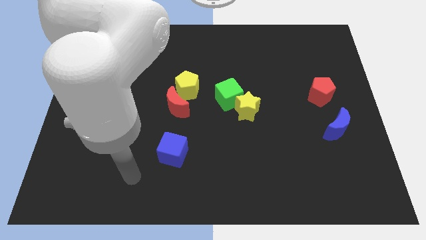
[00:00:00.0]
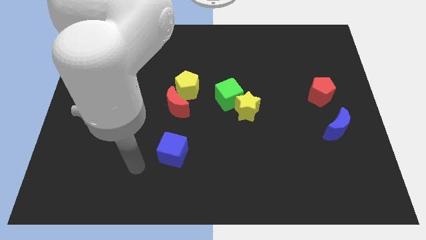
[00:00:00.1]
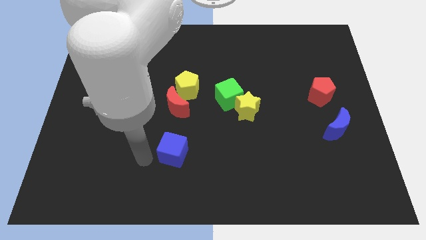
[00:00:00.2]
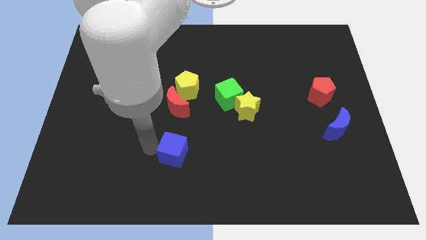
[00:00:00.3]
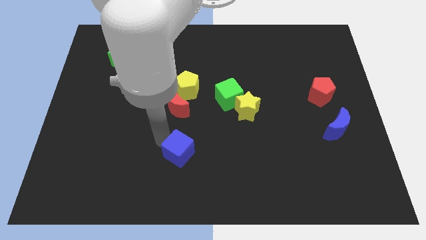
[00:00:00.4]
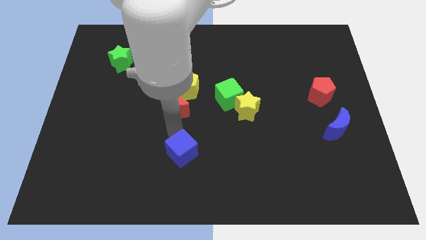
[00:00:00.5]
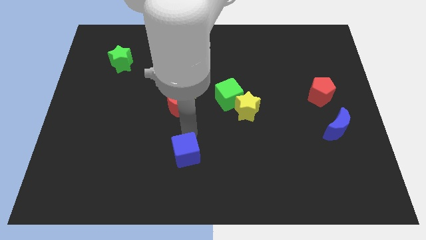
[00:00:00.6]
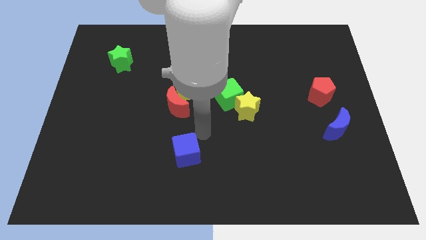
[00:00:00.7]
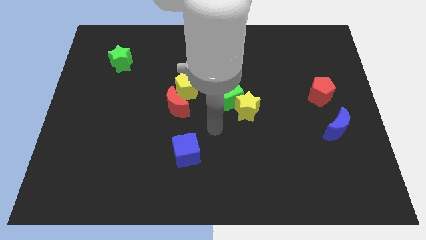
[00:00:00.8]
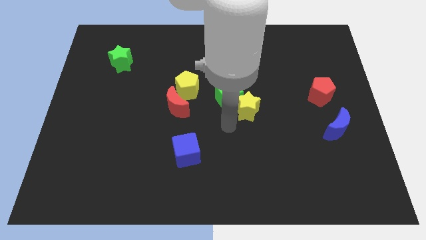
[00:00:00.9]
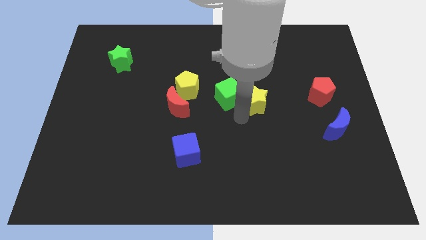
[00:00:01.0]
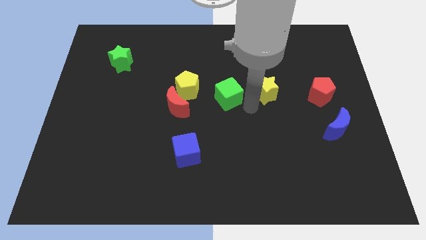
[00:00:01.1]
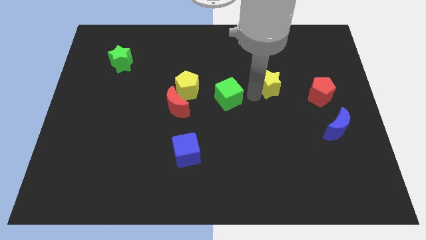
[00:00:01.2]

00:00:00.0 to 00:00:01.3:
pull the green cube apart from the yellow star

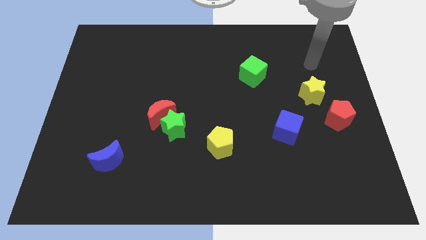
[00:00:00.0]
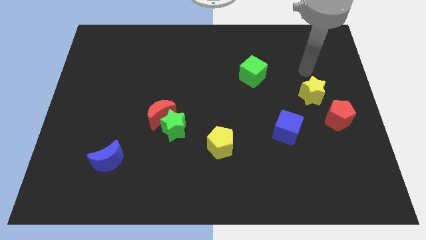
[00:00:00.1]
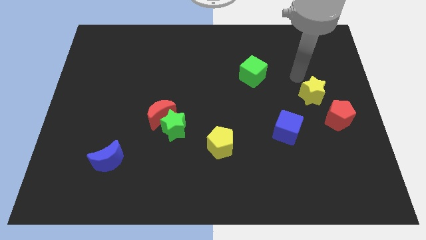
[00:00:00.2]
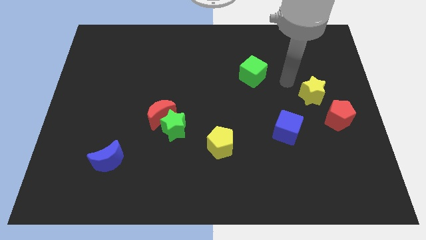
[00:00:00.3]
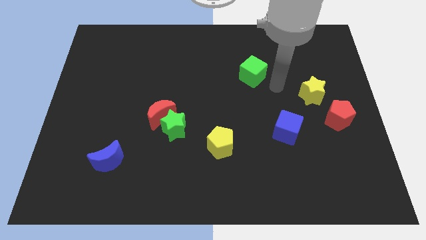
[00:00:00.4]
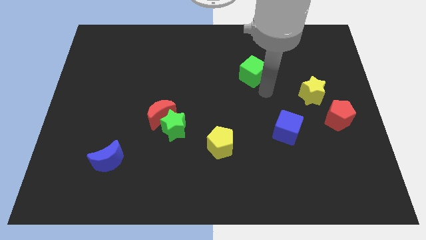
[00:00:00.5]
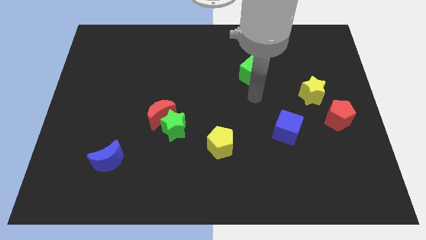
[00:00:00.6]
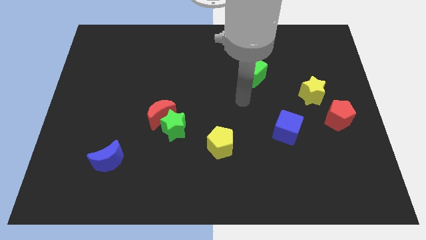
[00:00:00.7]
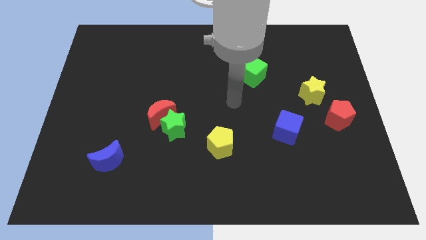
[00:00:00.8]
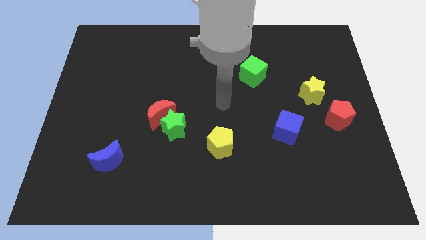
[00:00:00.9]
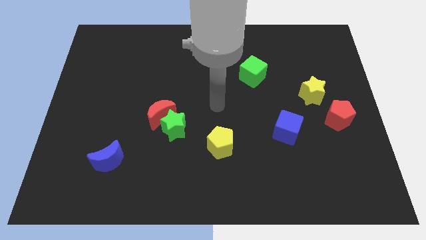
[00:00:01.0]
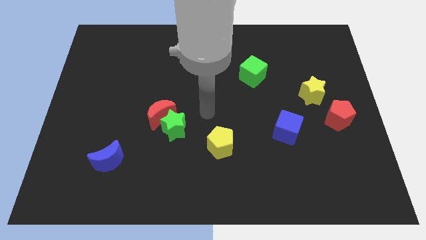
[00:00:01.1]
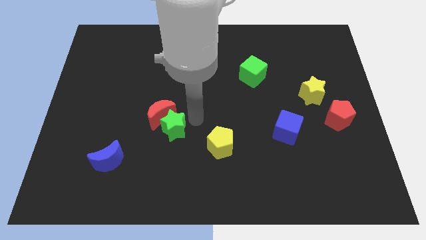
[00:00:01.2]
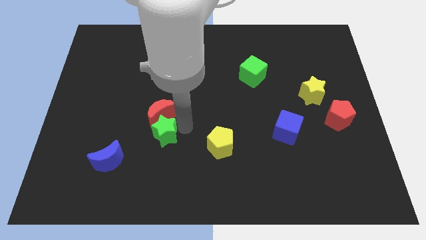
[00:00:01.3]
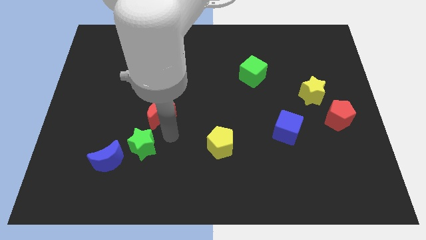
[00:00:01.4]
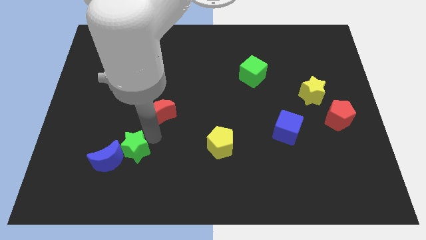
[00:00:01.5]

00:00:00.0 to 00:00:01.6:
move the red moon away from the green star

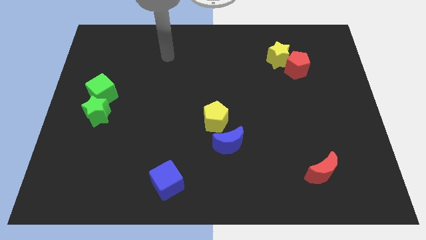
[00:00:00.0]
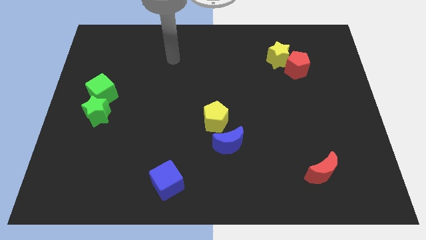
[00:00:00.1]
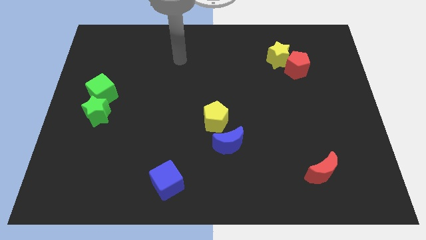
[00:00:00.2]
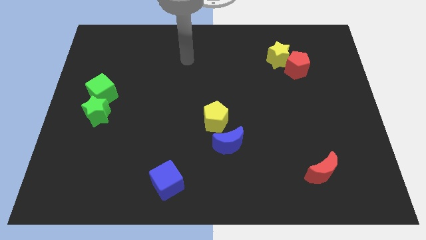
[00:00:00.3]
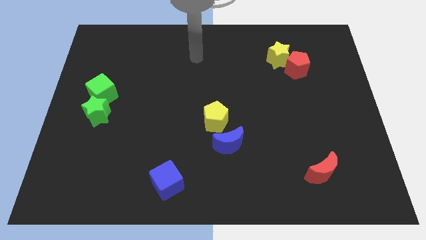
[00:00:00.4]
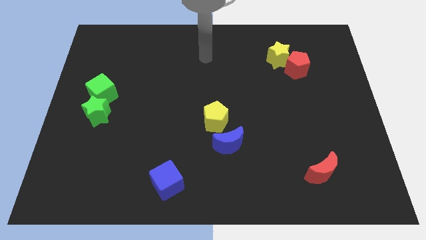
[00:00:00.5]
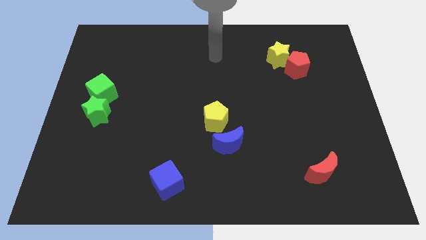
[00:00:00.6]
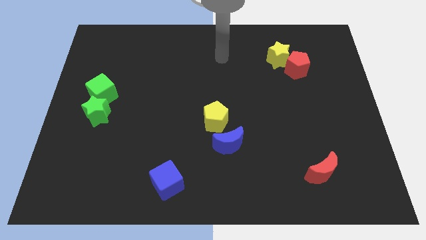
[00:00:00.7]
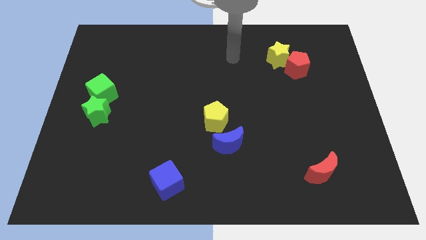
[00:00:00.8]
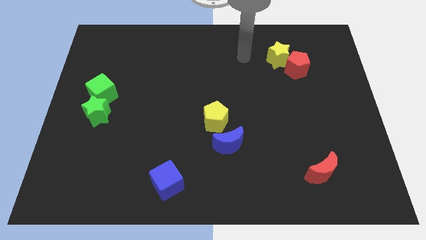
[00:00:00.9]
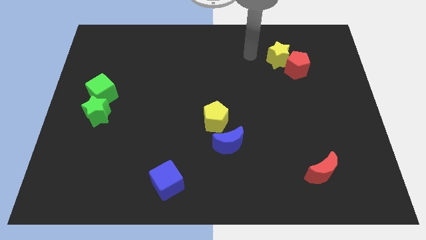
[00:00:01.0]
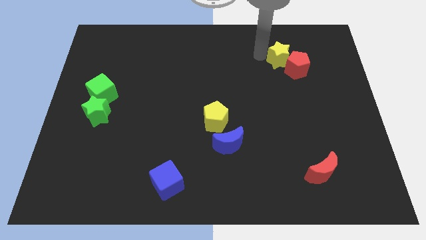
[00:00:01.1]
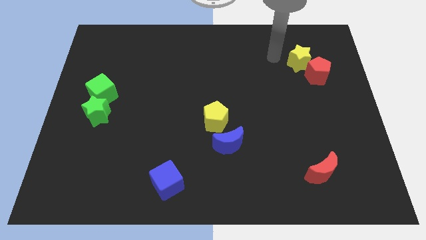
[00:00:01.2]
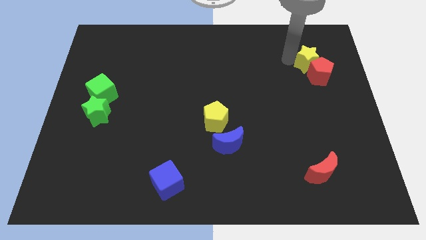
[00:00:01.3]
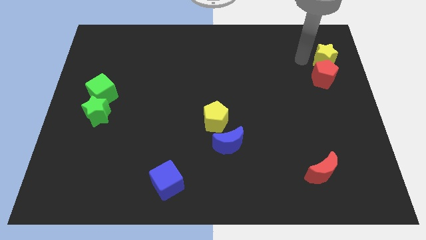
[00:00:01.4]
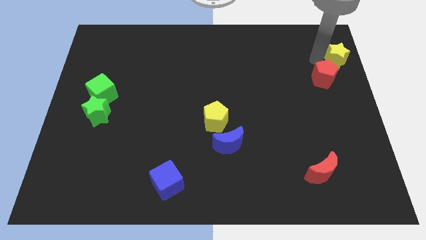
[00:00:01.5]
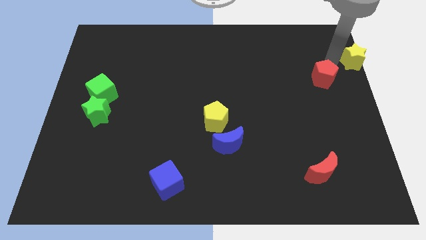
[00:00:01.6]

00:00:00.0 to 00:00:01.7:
pull the red pentagon apart from the yellow star

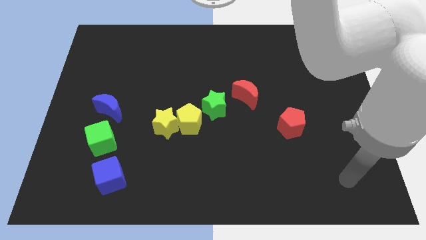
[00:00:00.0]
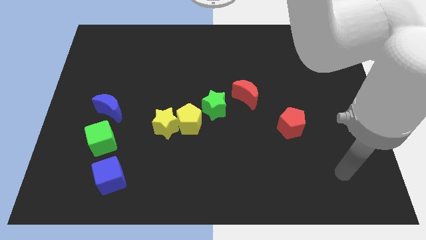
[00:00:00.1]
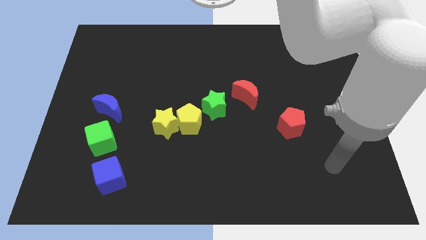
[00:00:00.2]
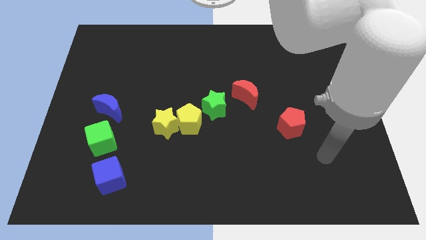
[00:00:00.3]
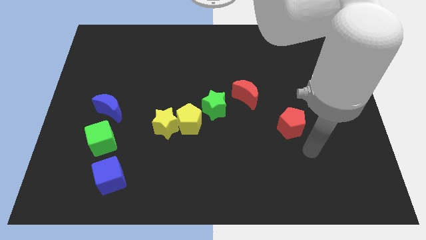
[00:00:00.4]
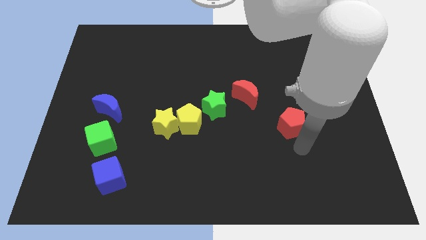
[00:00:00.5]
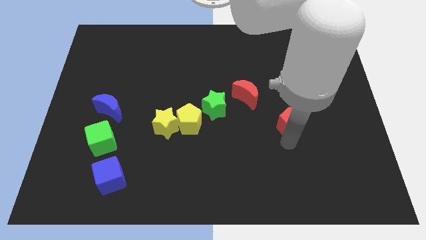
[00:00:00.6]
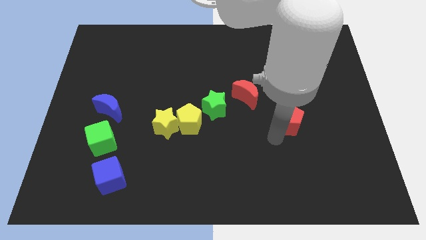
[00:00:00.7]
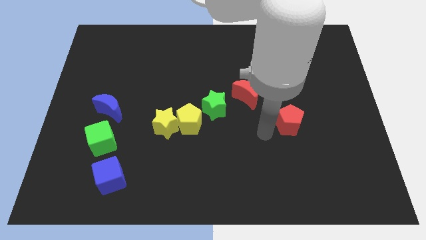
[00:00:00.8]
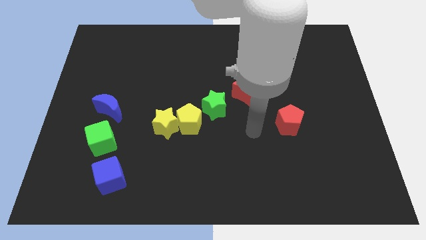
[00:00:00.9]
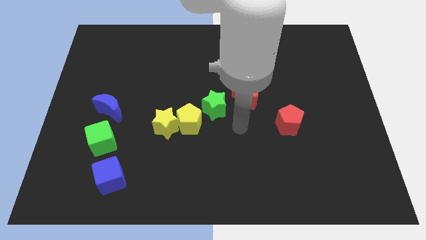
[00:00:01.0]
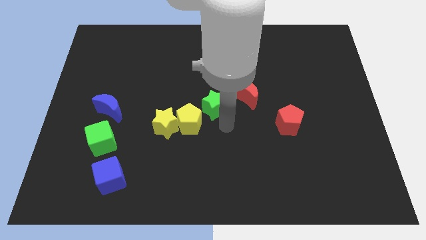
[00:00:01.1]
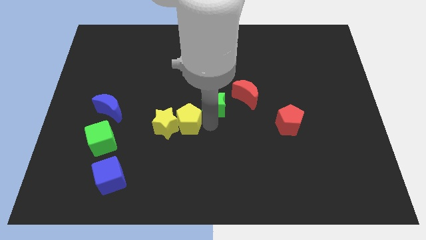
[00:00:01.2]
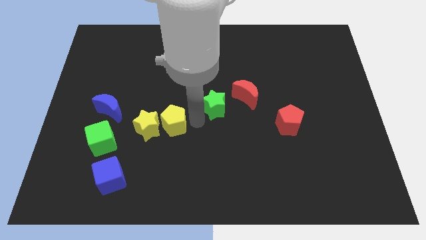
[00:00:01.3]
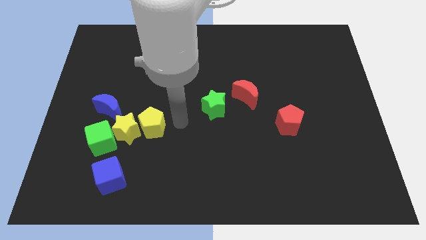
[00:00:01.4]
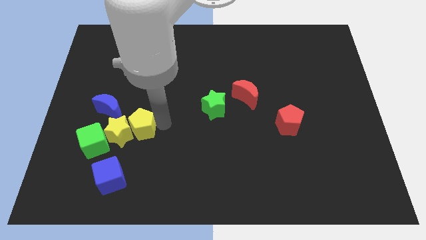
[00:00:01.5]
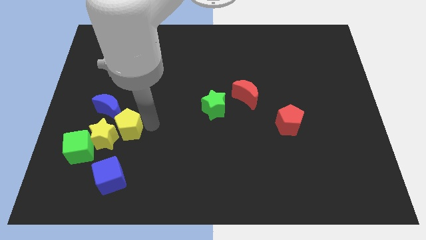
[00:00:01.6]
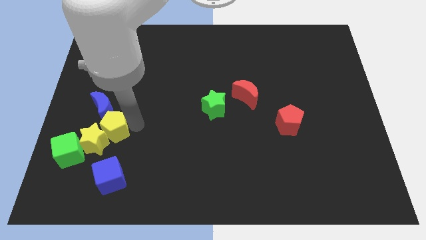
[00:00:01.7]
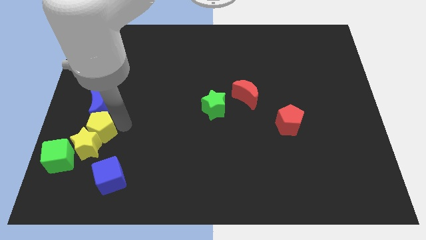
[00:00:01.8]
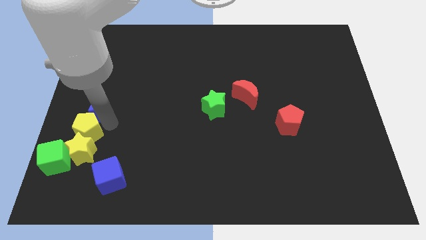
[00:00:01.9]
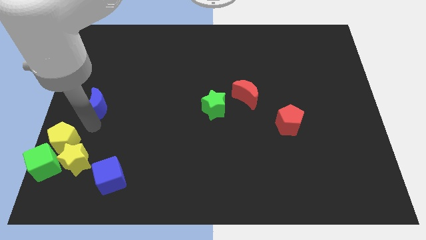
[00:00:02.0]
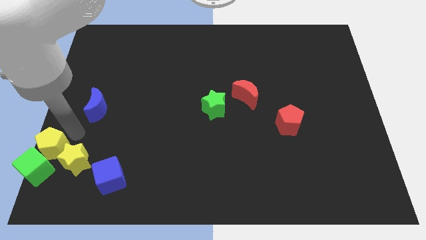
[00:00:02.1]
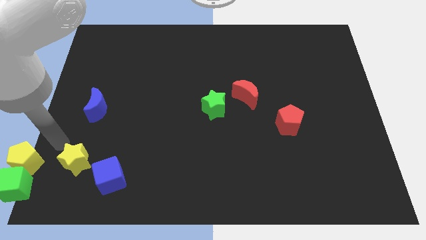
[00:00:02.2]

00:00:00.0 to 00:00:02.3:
pull the yellow star apart from the yellow pentagon

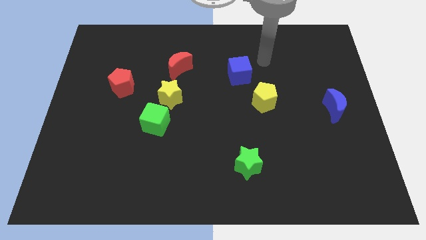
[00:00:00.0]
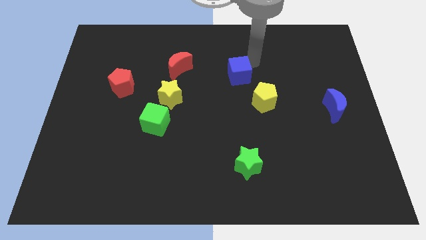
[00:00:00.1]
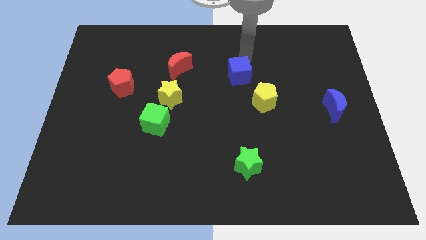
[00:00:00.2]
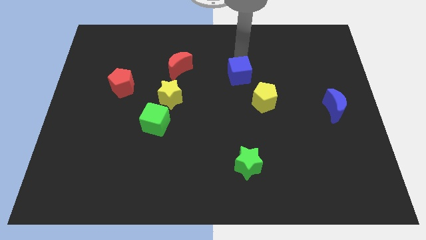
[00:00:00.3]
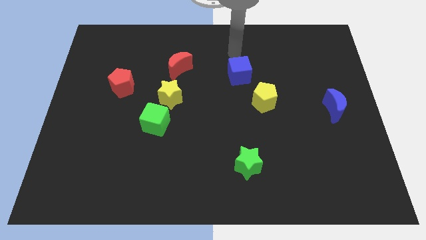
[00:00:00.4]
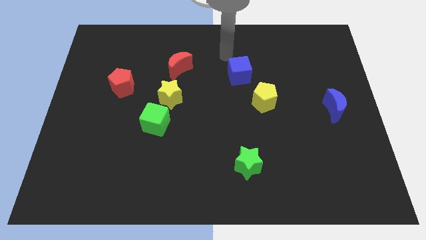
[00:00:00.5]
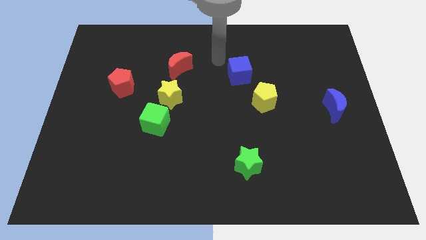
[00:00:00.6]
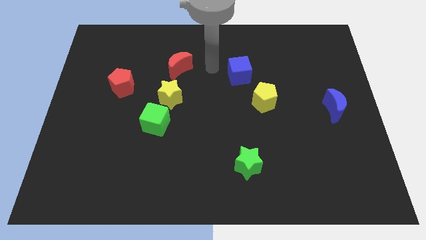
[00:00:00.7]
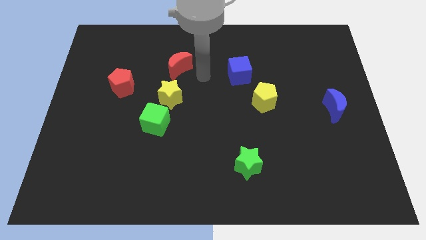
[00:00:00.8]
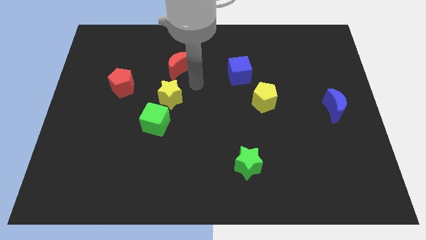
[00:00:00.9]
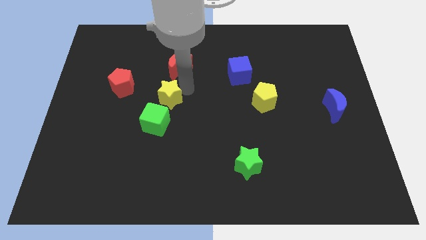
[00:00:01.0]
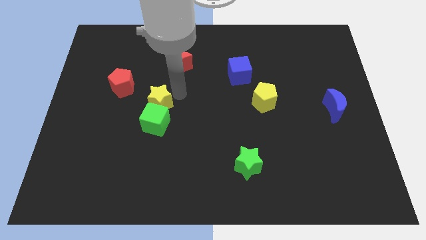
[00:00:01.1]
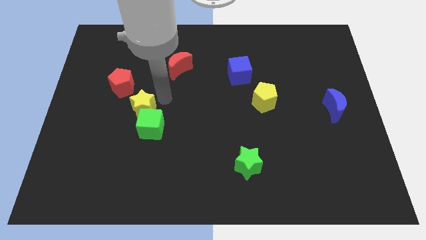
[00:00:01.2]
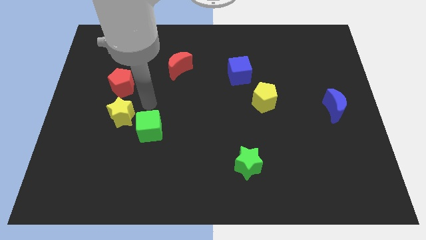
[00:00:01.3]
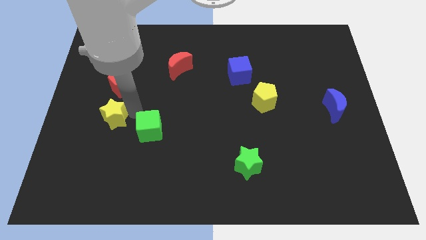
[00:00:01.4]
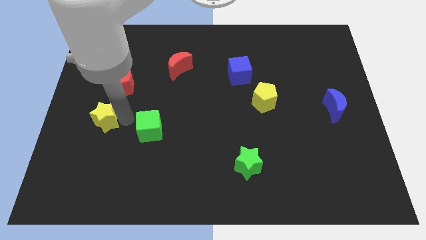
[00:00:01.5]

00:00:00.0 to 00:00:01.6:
move the green cube away from the yellow star

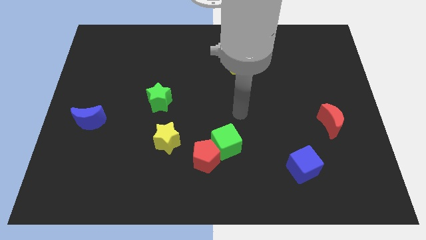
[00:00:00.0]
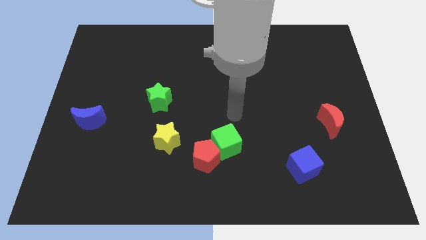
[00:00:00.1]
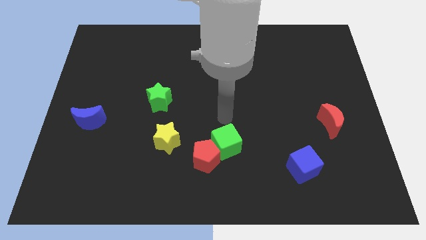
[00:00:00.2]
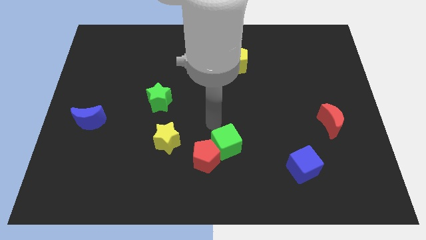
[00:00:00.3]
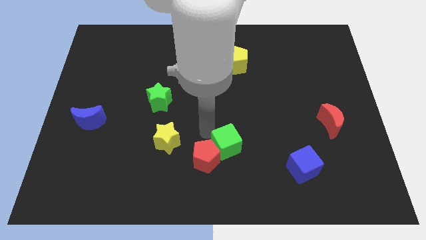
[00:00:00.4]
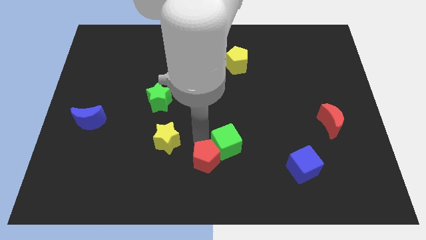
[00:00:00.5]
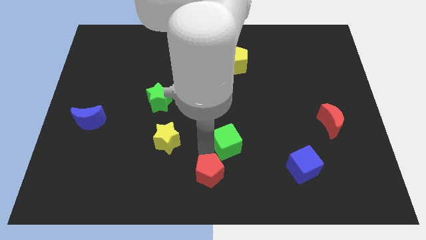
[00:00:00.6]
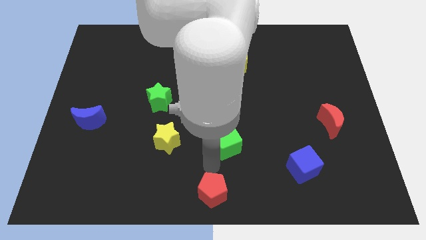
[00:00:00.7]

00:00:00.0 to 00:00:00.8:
move the green cube away from the red pentagon
